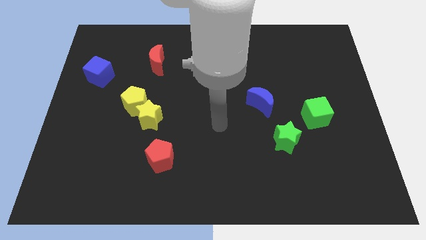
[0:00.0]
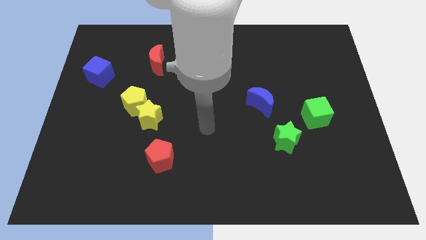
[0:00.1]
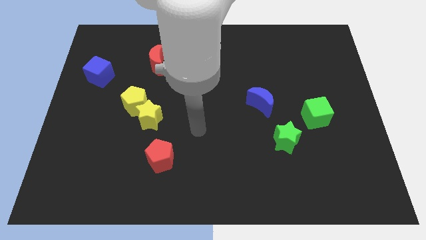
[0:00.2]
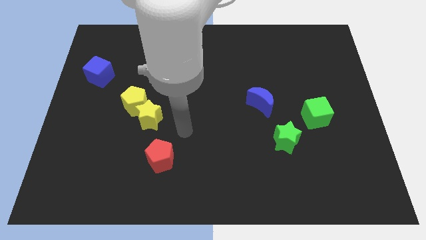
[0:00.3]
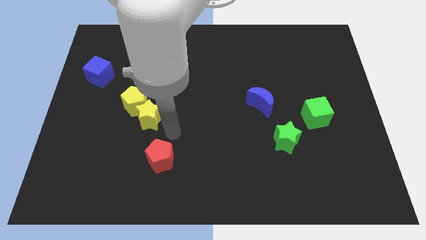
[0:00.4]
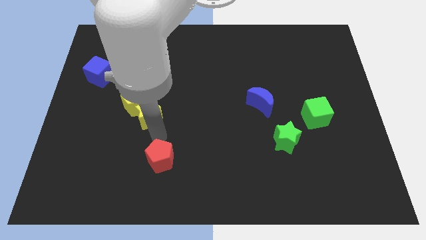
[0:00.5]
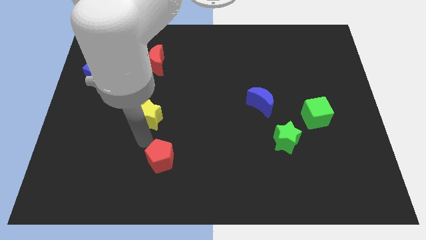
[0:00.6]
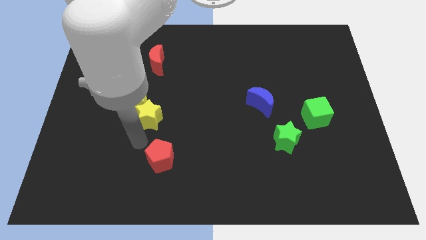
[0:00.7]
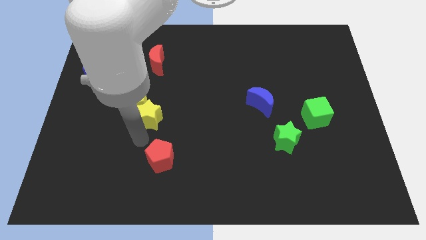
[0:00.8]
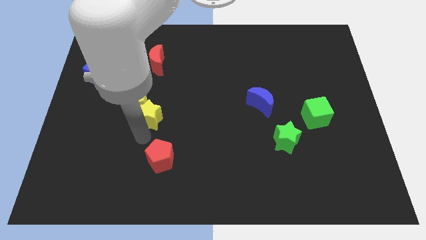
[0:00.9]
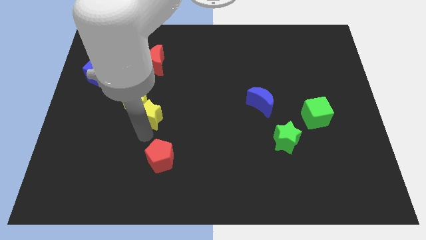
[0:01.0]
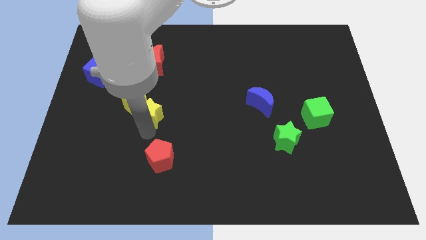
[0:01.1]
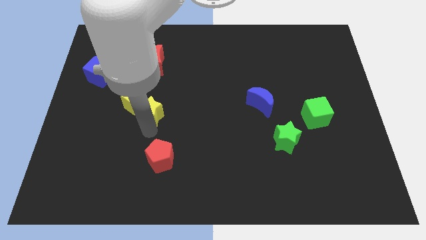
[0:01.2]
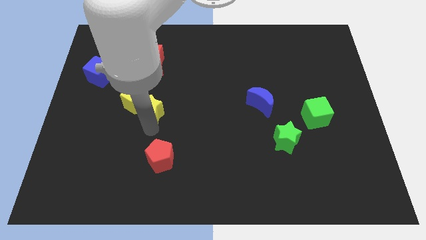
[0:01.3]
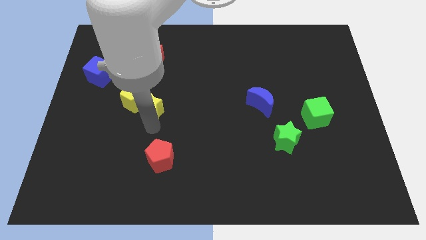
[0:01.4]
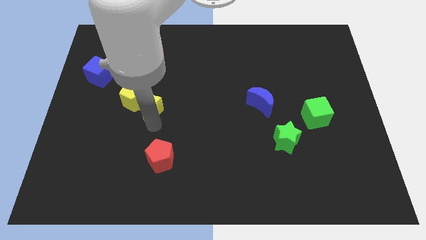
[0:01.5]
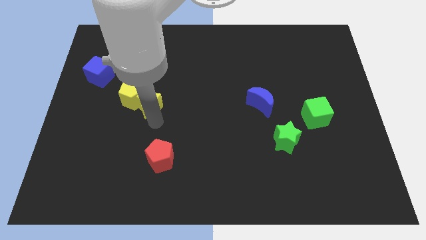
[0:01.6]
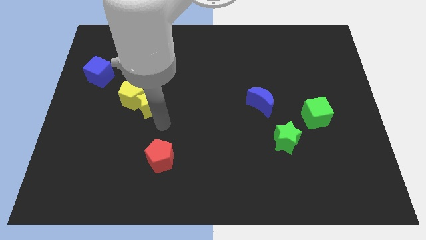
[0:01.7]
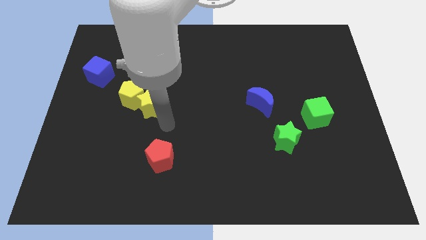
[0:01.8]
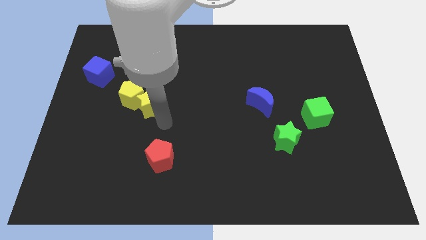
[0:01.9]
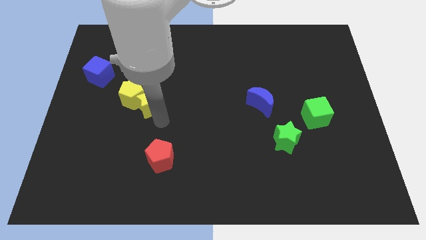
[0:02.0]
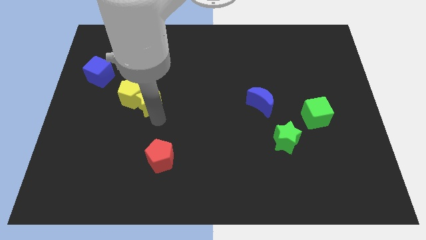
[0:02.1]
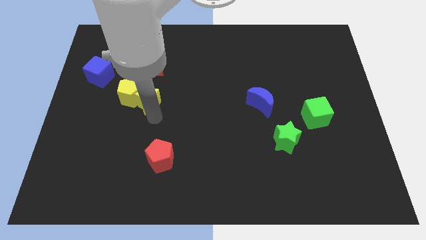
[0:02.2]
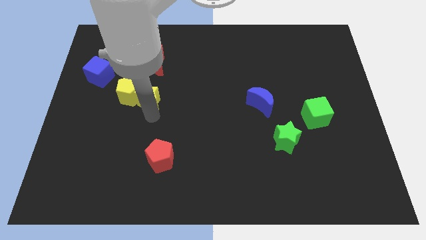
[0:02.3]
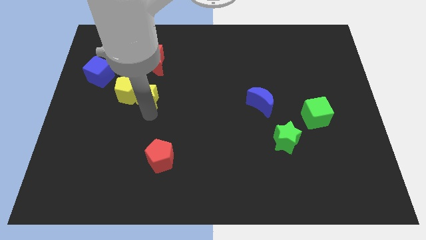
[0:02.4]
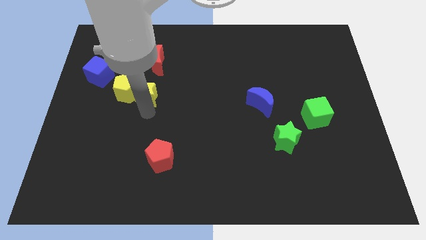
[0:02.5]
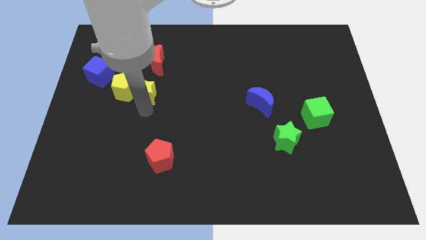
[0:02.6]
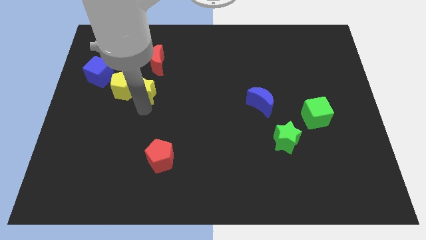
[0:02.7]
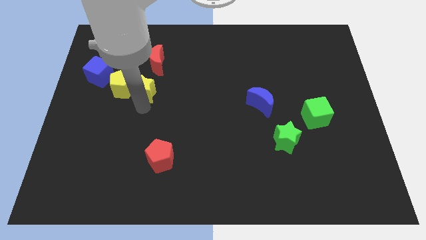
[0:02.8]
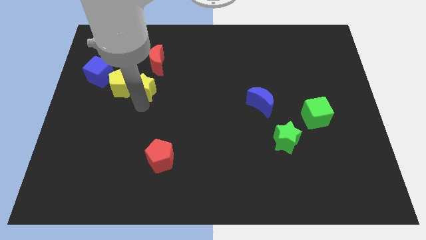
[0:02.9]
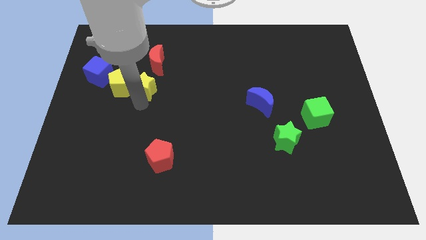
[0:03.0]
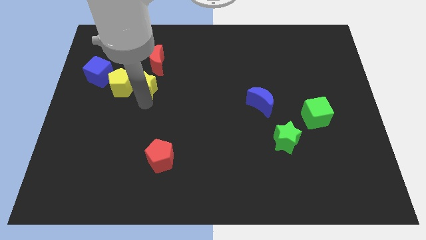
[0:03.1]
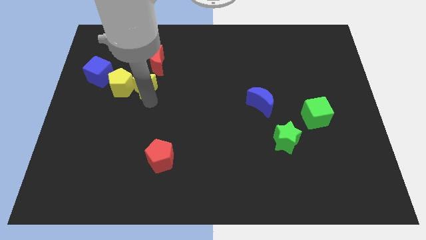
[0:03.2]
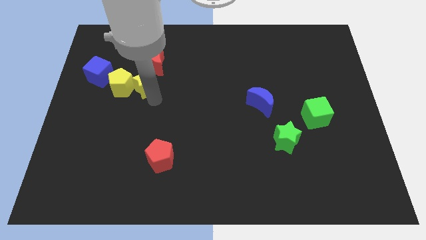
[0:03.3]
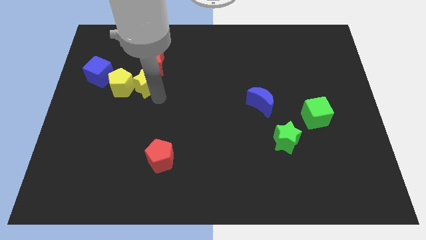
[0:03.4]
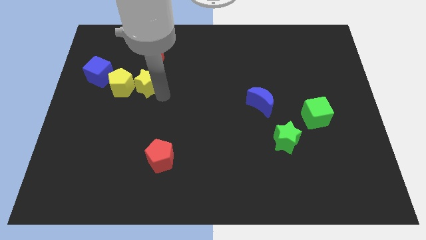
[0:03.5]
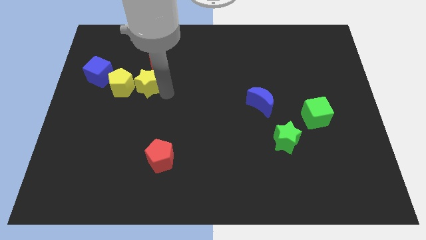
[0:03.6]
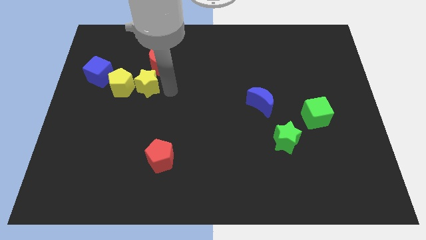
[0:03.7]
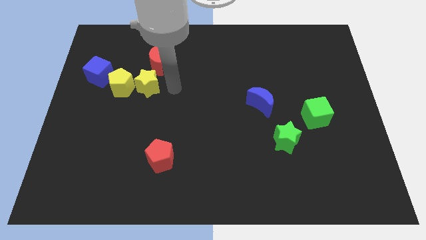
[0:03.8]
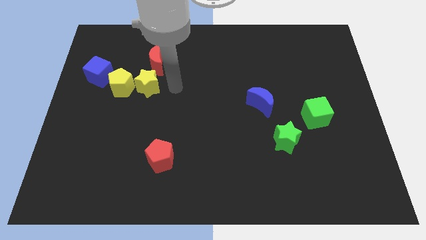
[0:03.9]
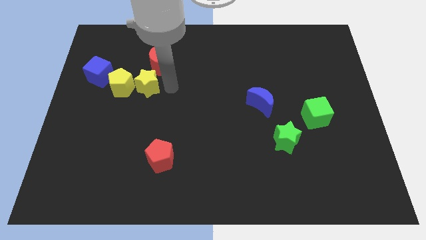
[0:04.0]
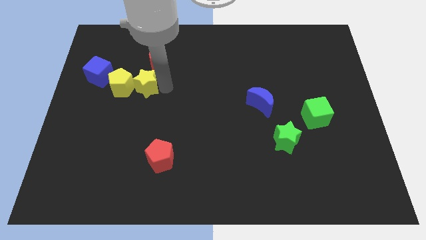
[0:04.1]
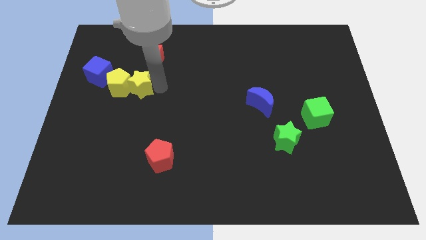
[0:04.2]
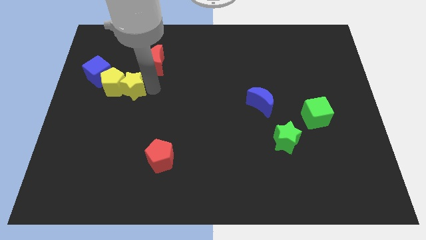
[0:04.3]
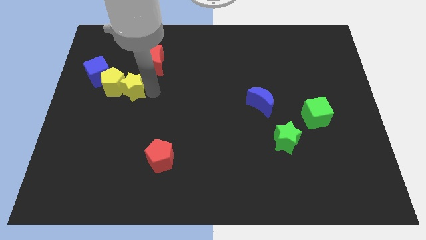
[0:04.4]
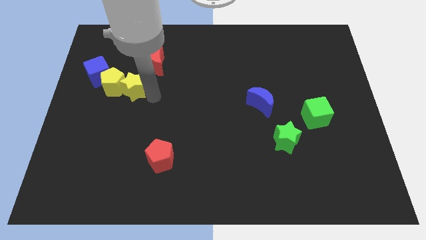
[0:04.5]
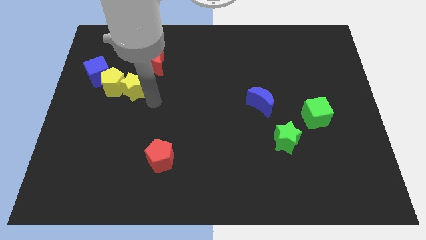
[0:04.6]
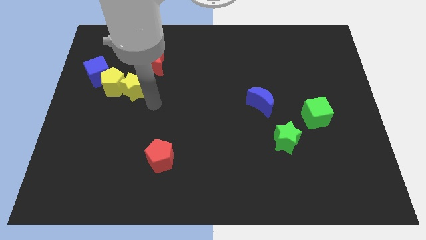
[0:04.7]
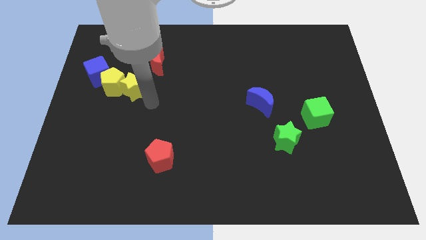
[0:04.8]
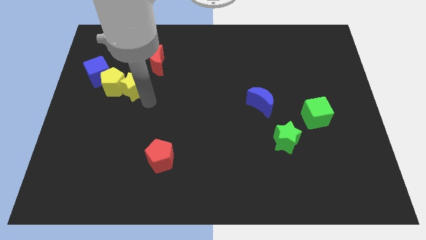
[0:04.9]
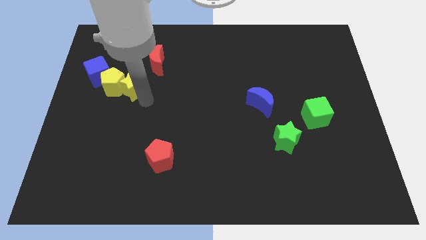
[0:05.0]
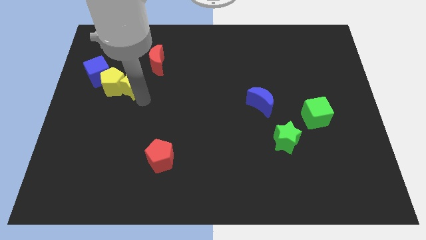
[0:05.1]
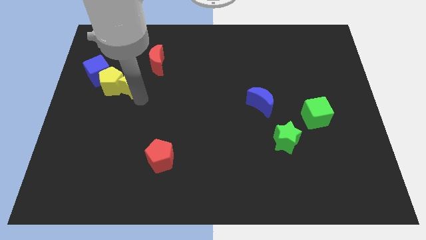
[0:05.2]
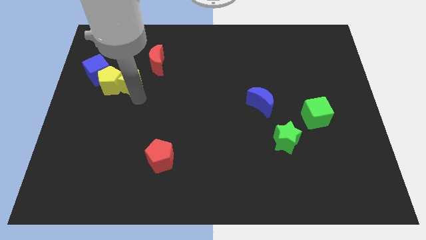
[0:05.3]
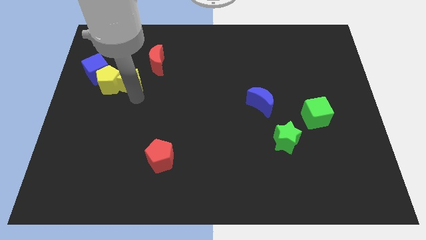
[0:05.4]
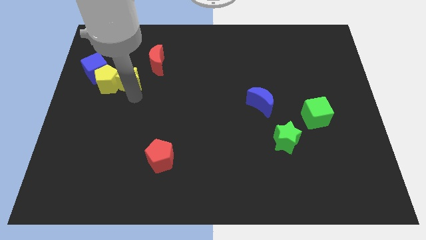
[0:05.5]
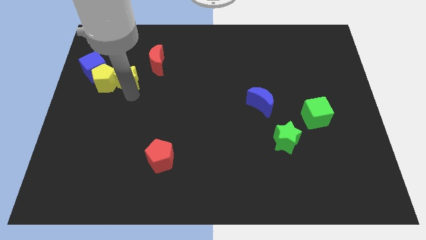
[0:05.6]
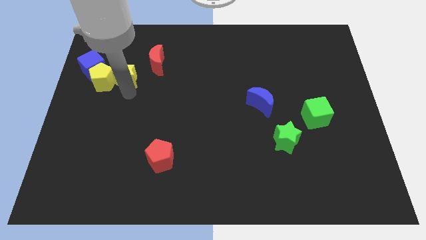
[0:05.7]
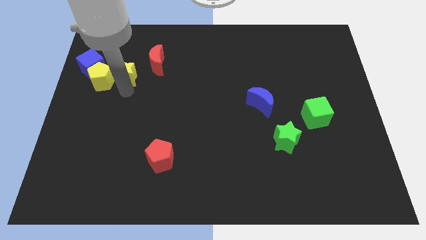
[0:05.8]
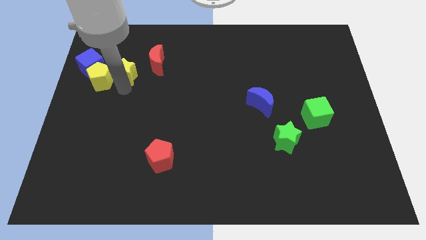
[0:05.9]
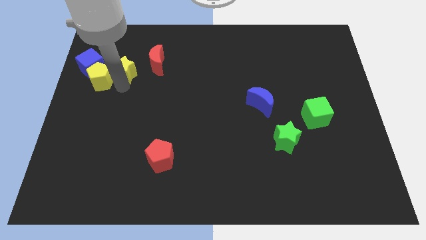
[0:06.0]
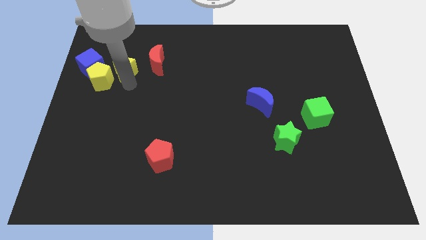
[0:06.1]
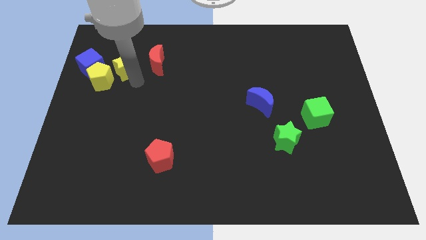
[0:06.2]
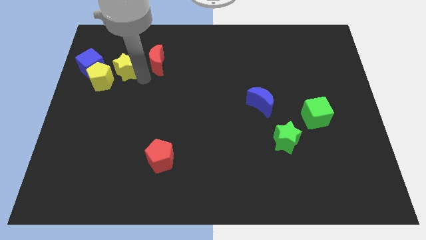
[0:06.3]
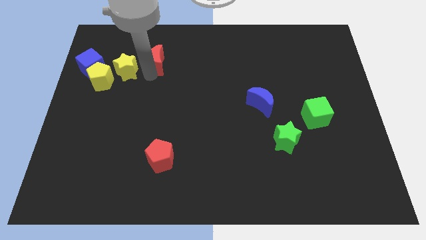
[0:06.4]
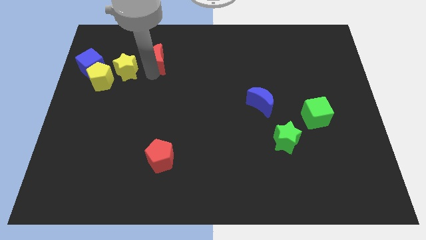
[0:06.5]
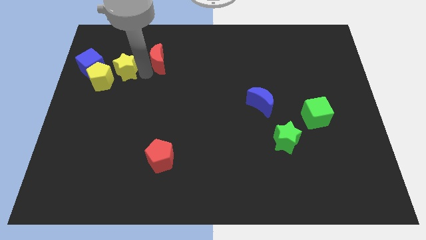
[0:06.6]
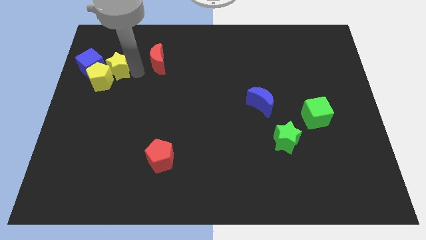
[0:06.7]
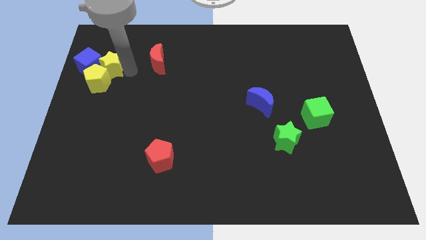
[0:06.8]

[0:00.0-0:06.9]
slide the yellow star to the blue cube

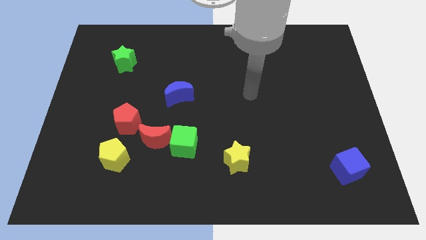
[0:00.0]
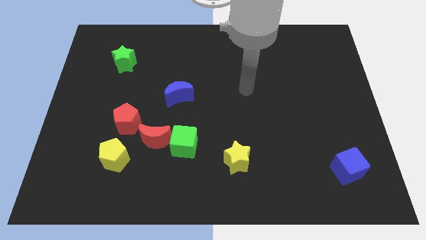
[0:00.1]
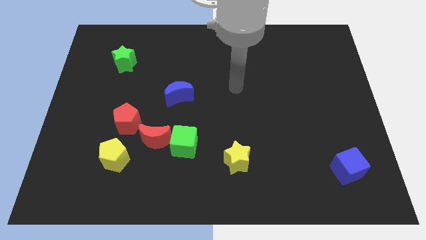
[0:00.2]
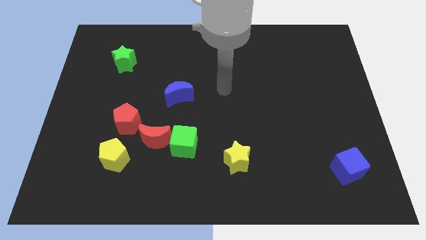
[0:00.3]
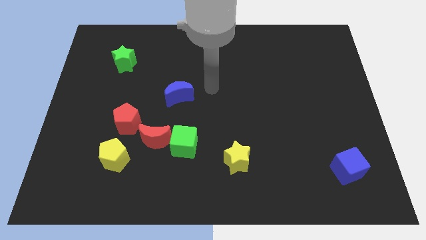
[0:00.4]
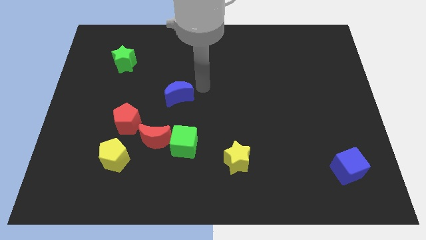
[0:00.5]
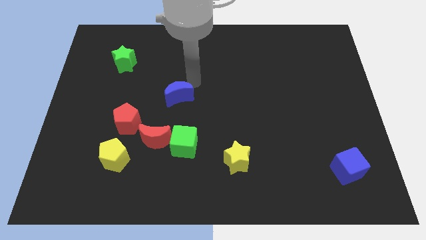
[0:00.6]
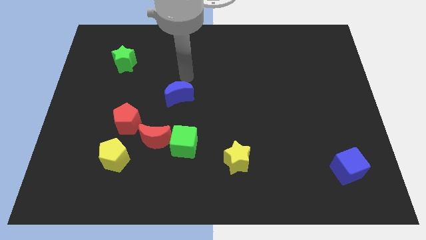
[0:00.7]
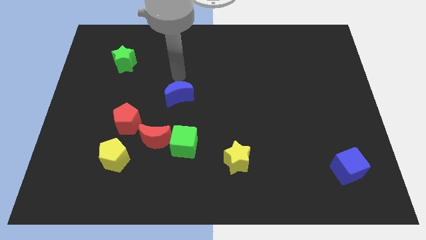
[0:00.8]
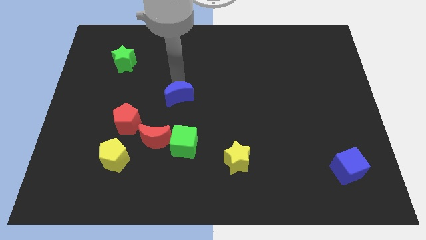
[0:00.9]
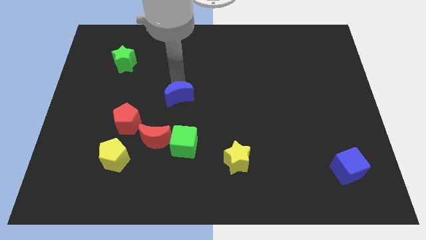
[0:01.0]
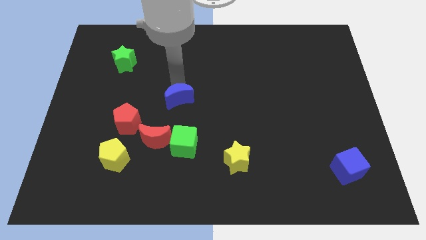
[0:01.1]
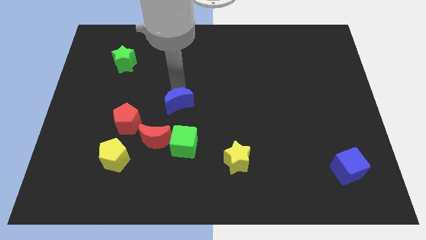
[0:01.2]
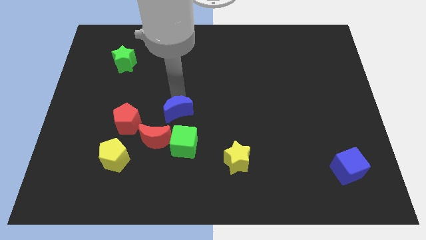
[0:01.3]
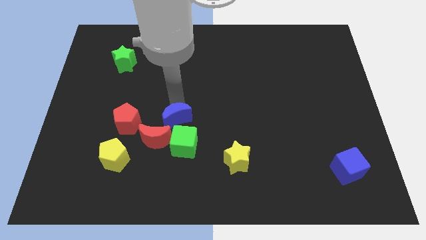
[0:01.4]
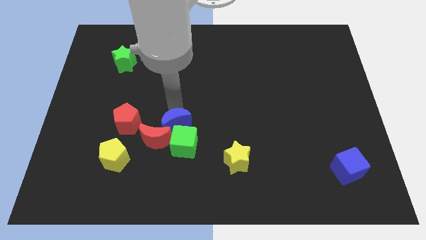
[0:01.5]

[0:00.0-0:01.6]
move the blue moon to the green cube
